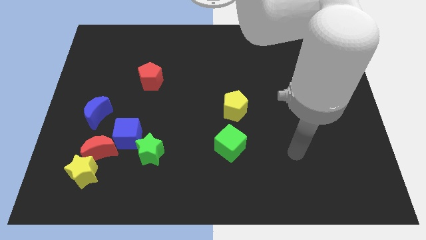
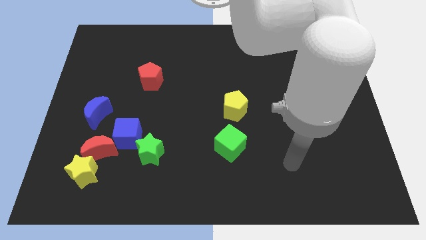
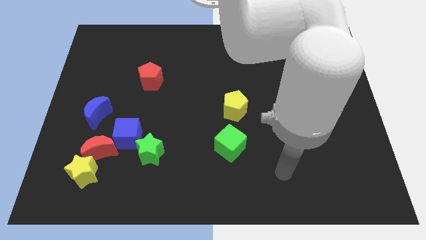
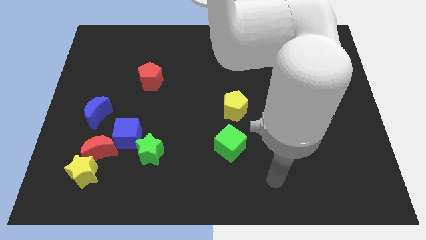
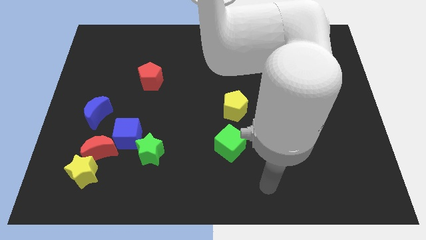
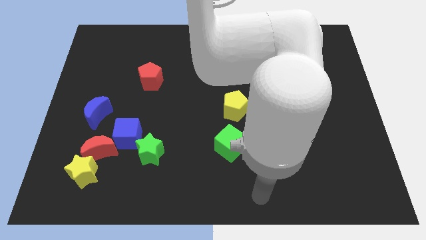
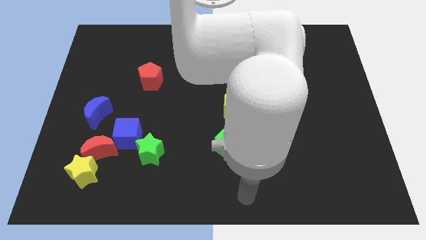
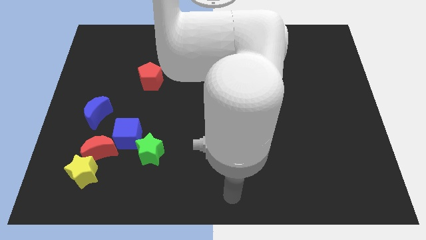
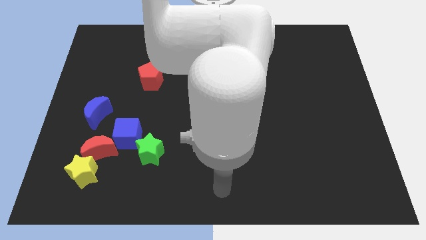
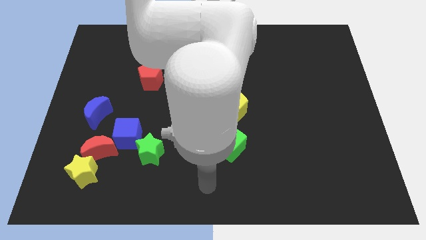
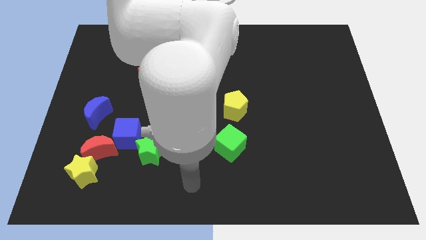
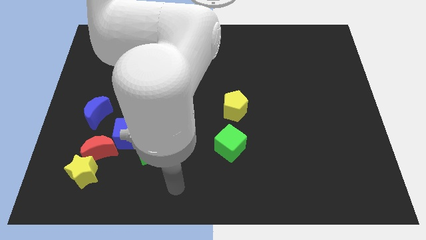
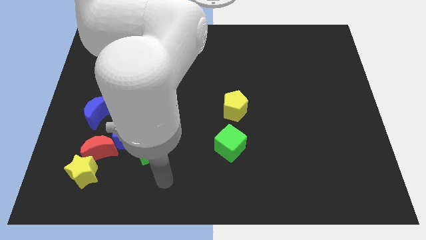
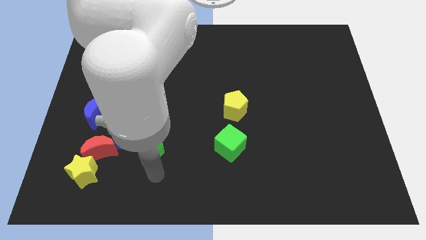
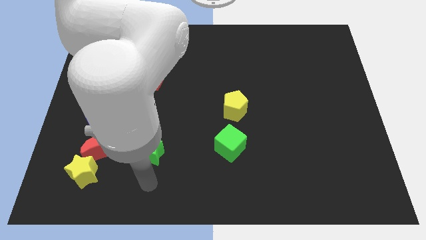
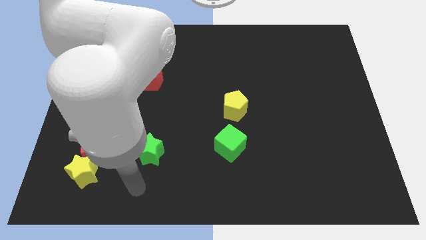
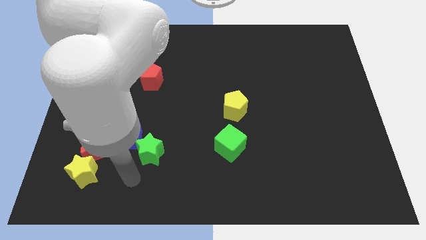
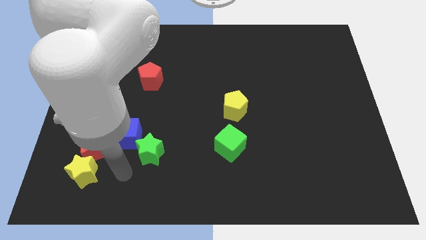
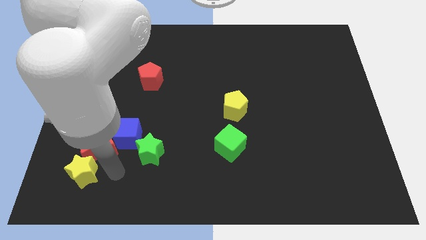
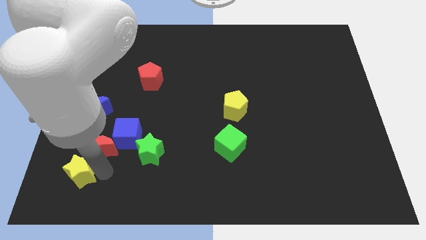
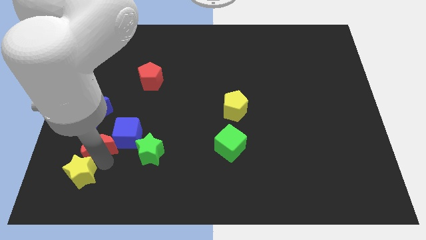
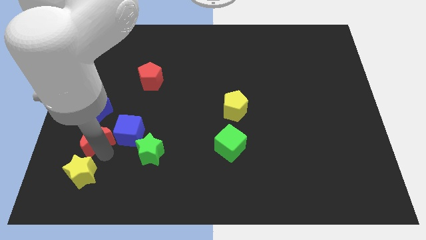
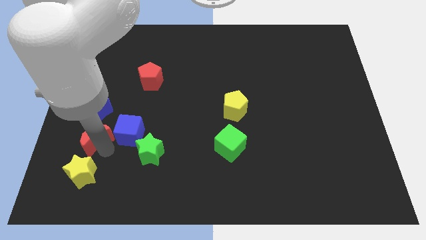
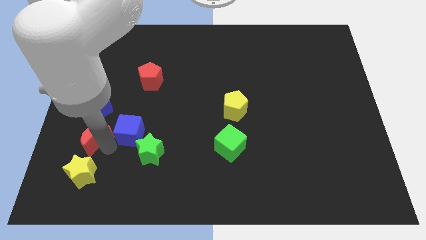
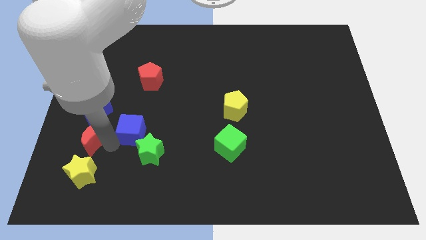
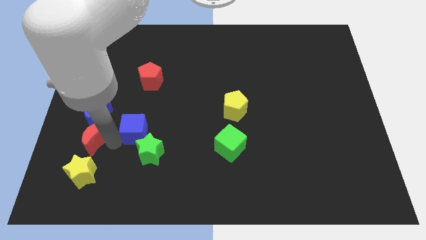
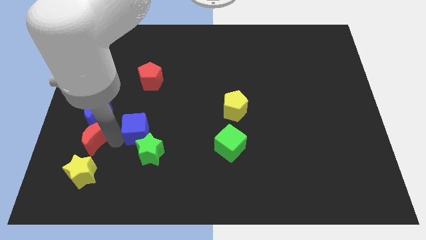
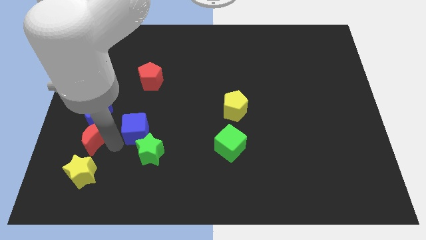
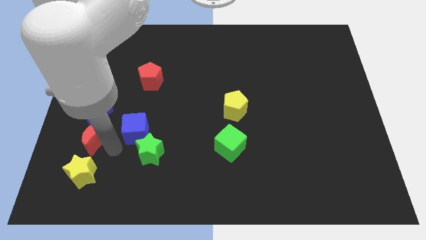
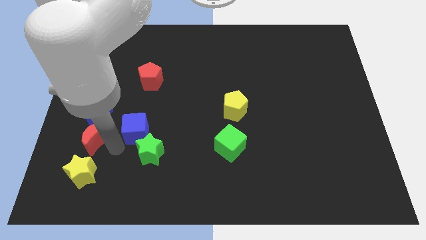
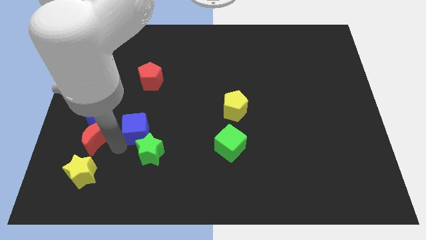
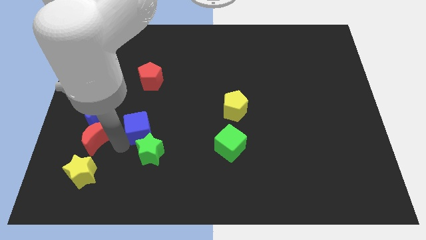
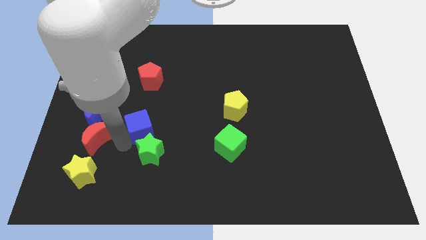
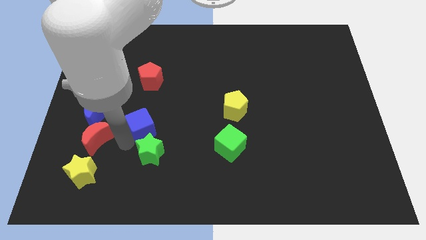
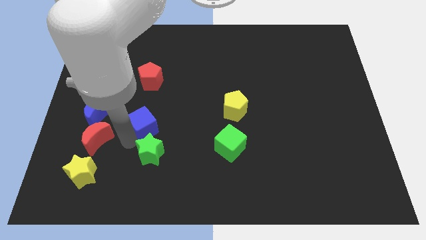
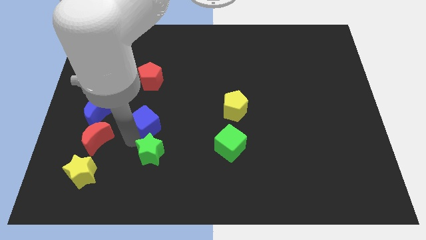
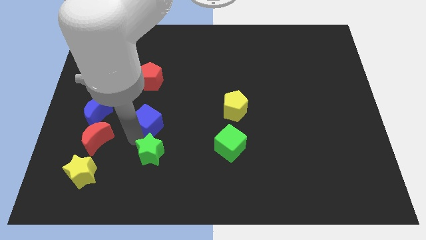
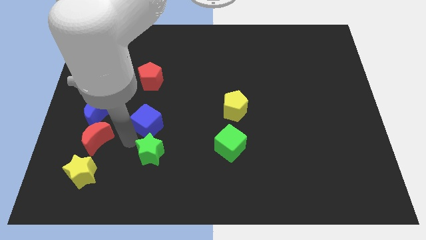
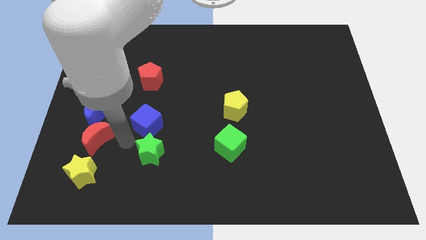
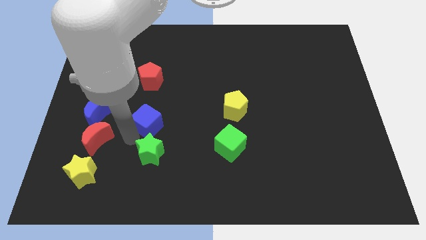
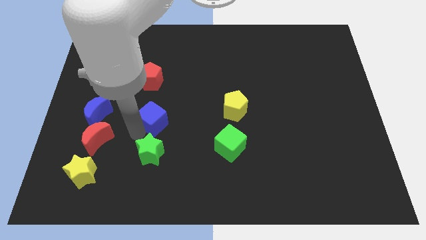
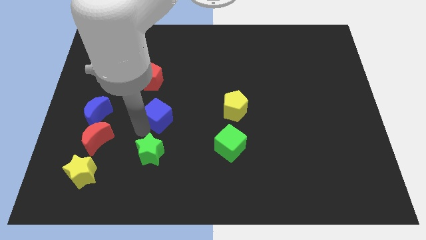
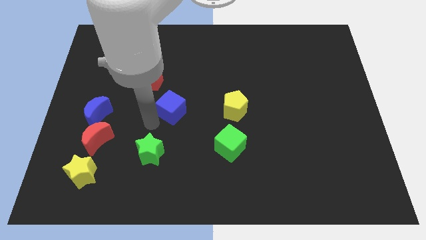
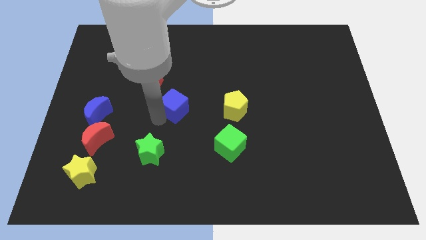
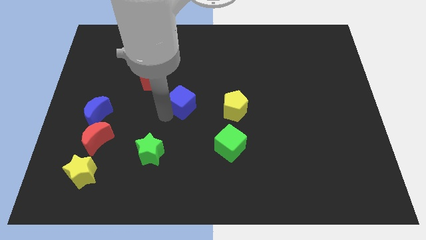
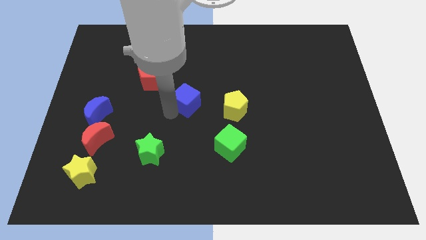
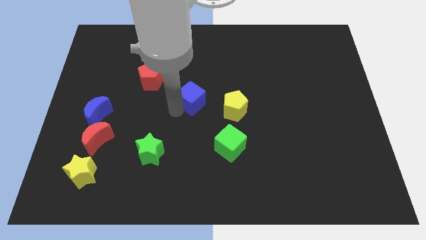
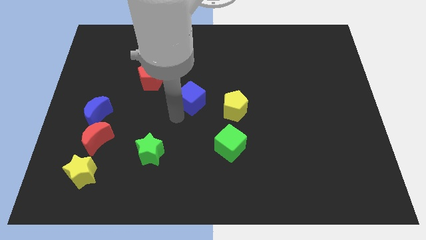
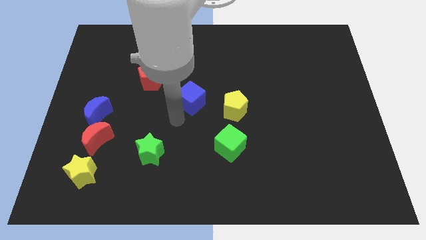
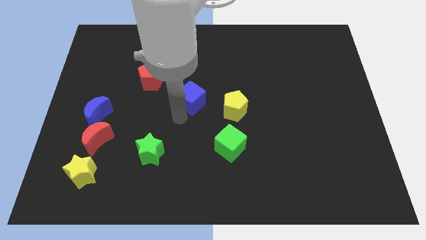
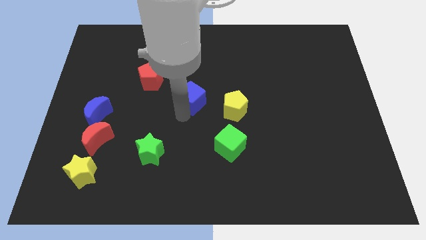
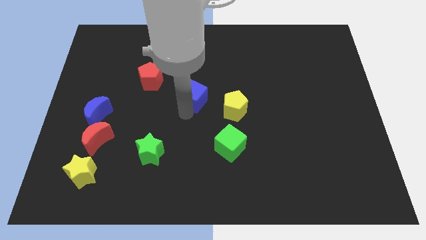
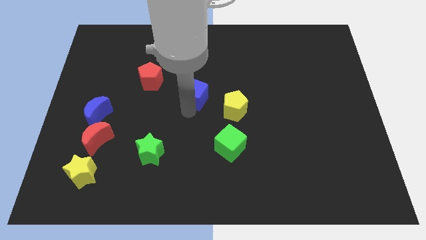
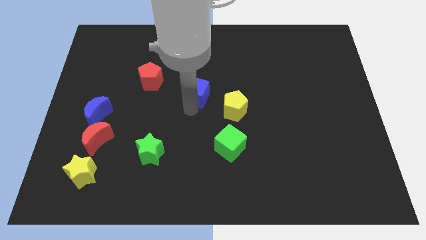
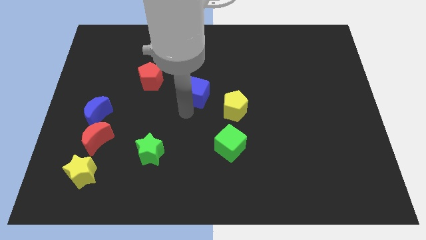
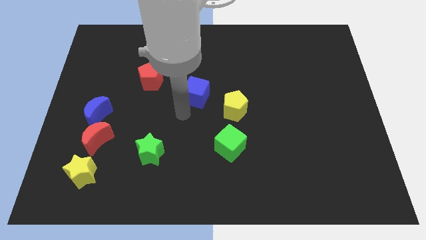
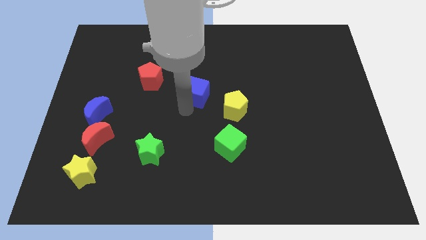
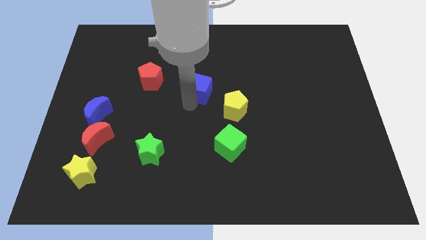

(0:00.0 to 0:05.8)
push the blue cube up and to the right

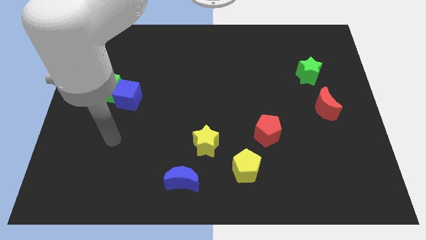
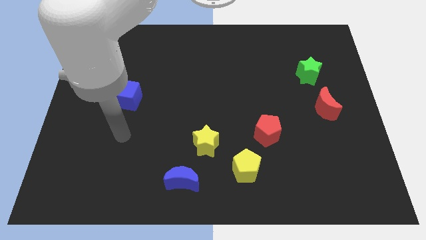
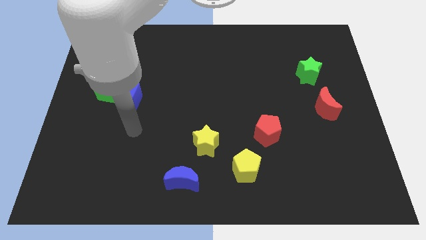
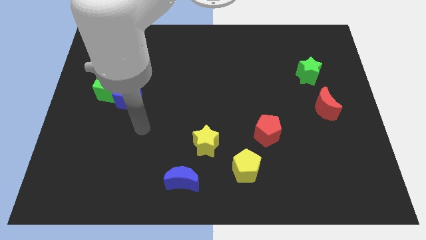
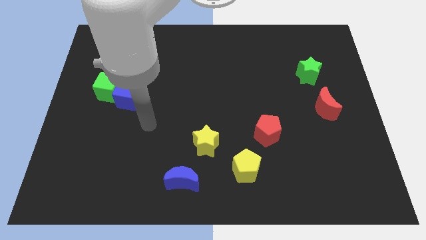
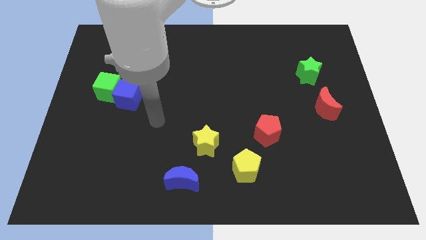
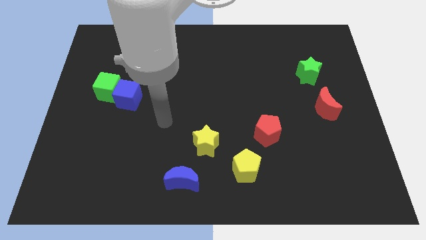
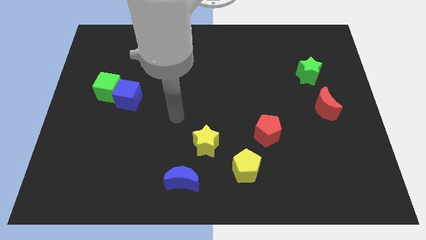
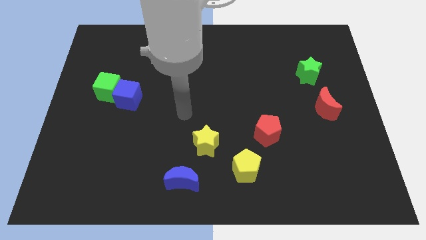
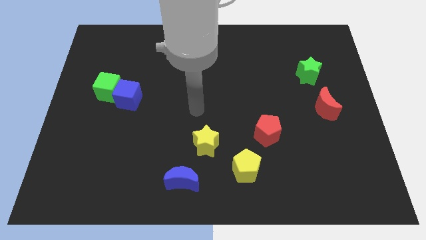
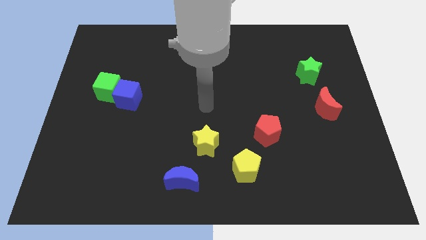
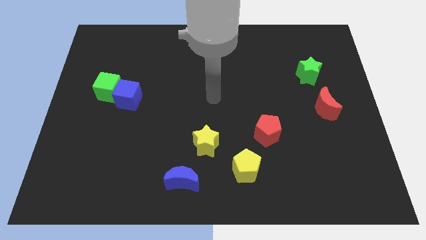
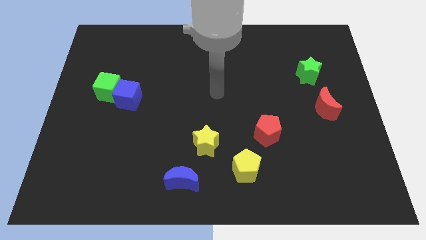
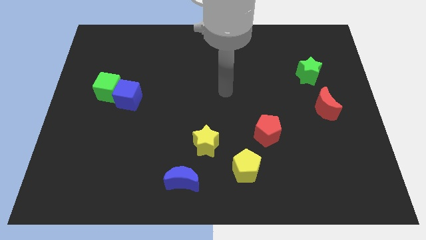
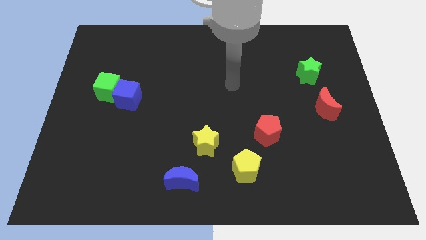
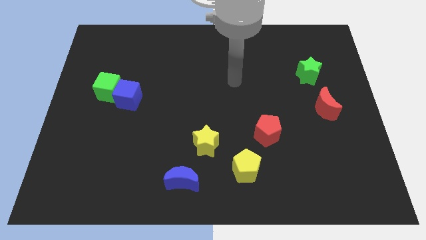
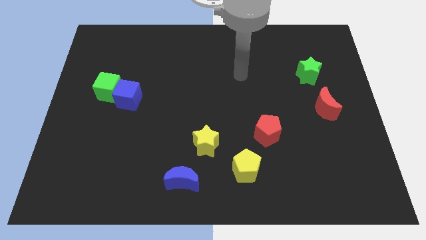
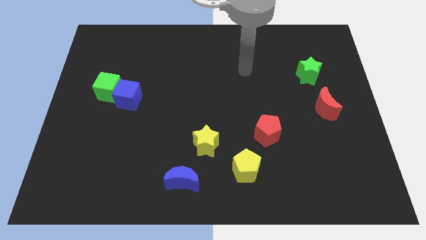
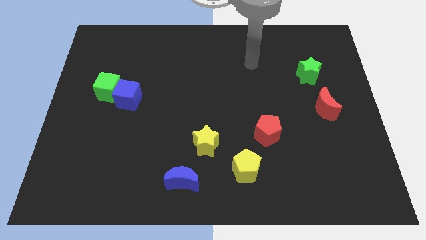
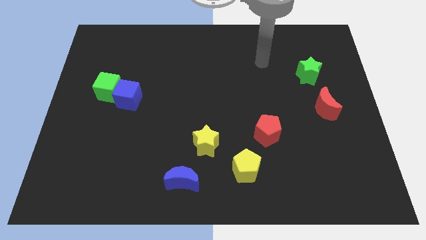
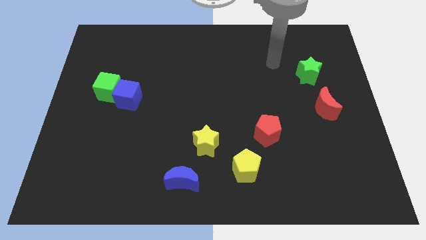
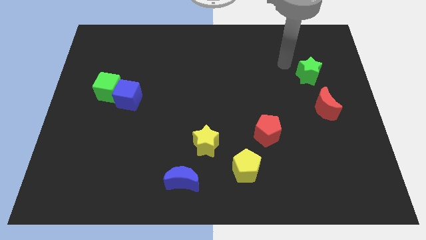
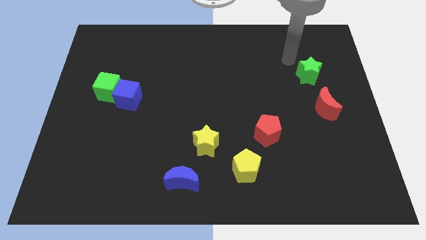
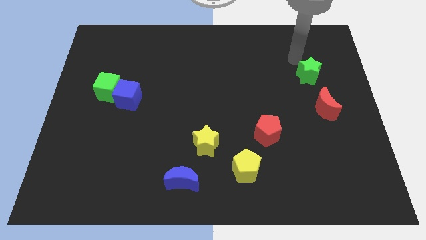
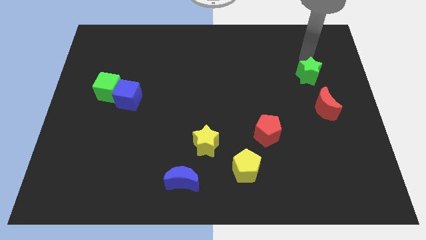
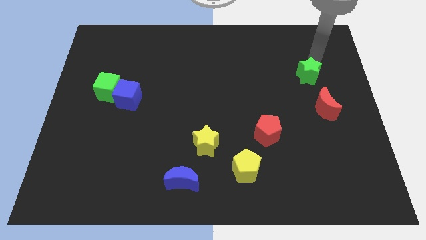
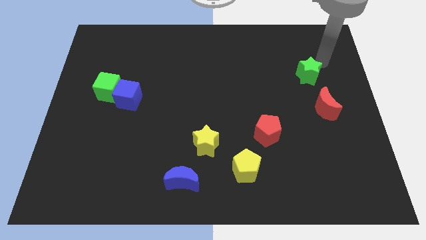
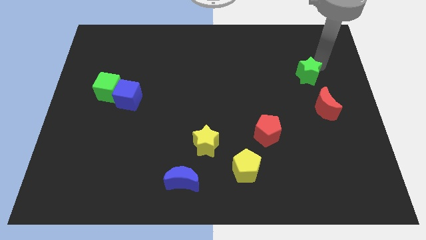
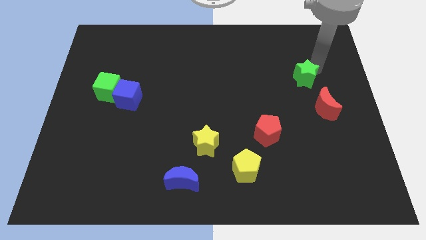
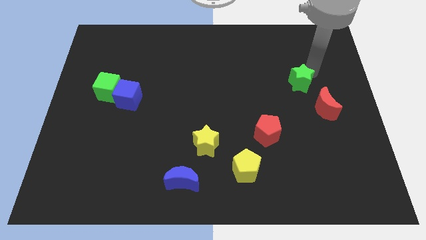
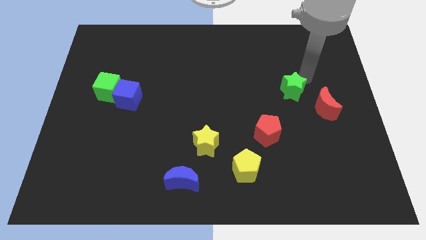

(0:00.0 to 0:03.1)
slide the green star slightly down and then to the left
